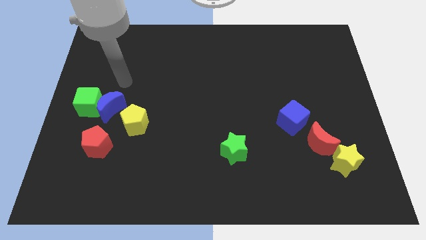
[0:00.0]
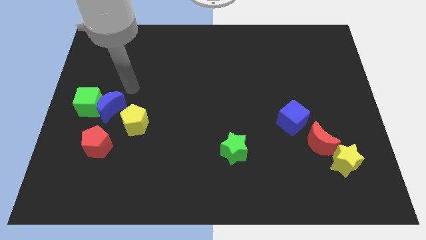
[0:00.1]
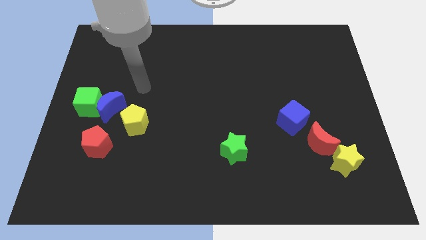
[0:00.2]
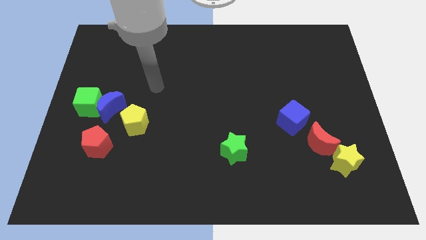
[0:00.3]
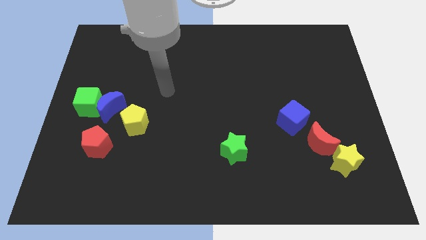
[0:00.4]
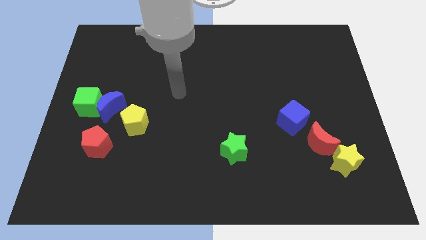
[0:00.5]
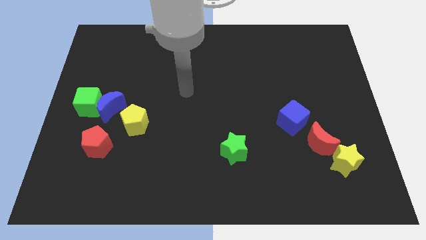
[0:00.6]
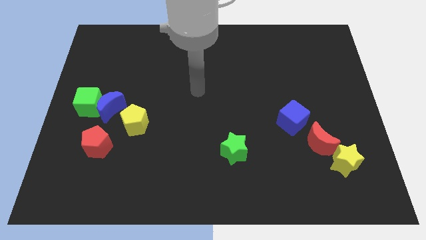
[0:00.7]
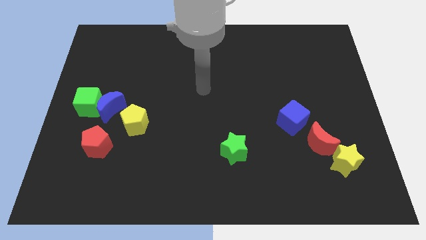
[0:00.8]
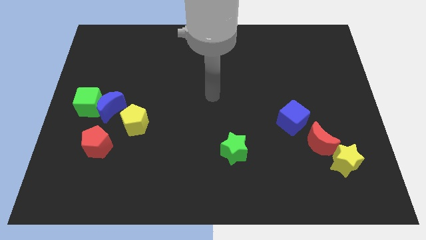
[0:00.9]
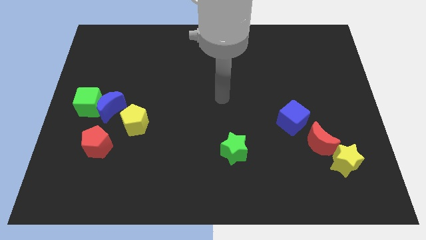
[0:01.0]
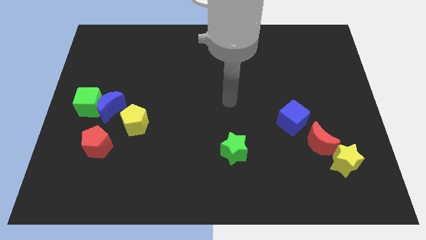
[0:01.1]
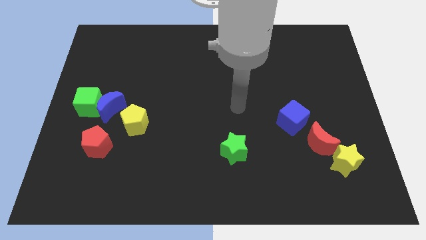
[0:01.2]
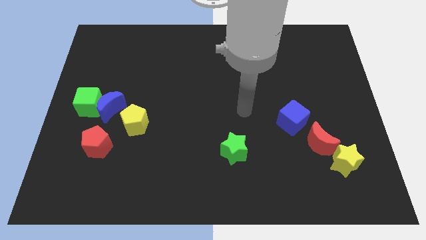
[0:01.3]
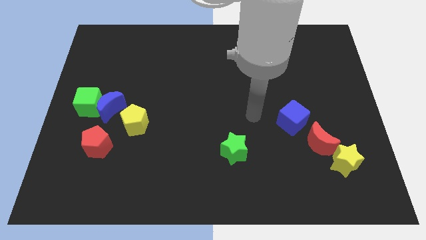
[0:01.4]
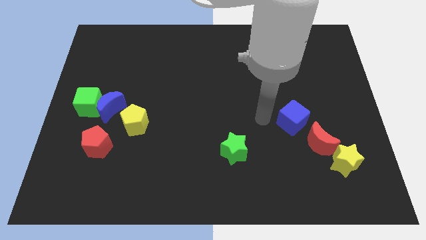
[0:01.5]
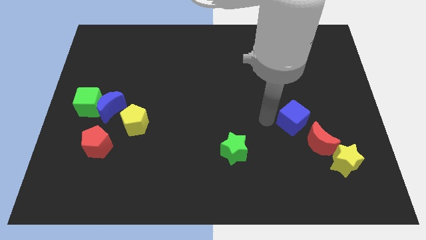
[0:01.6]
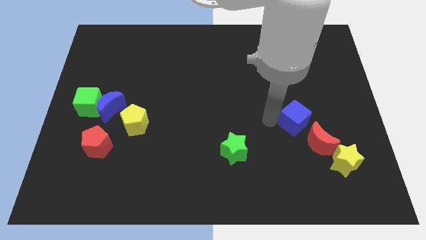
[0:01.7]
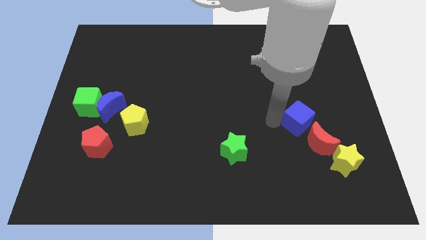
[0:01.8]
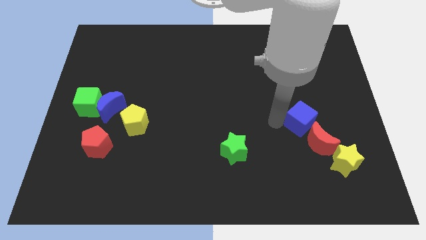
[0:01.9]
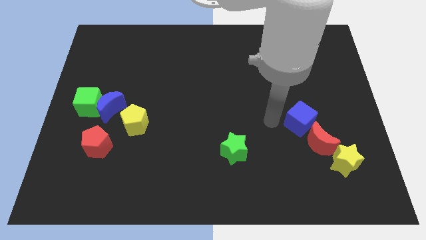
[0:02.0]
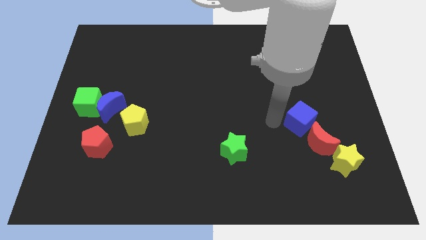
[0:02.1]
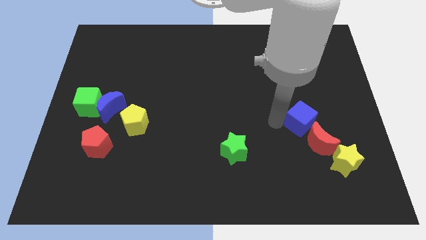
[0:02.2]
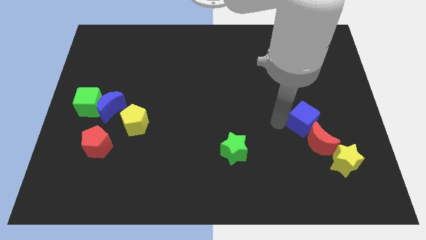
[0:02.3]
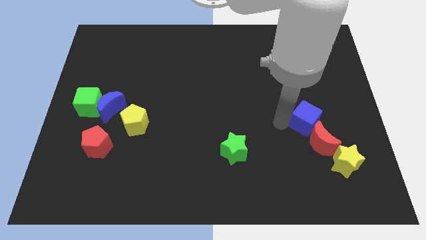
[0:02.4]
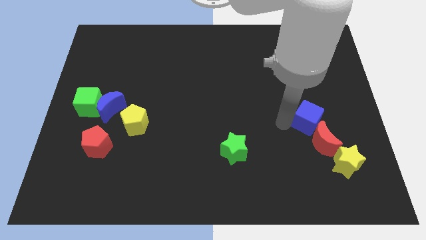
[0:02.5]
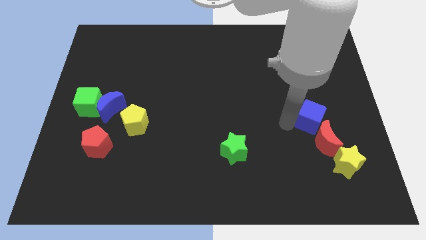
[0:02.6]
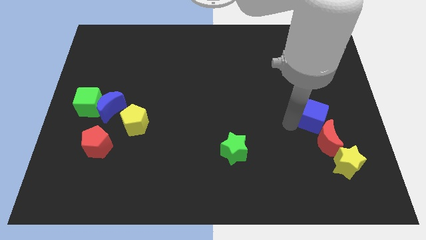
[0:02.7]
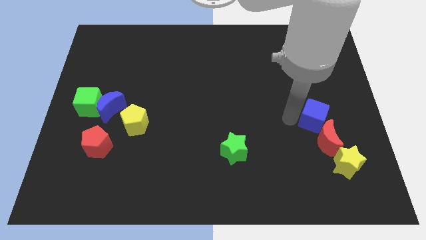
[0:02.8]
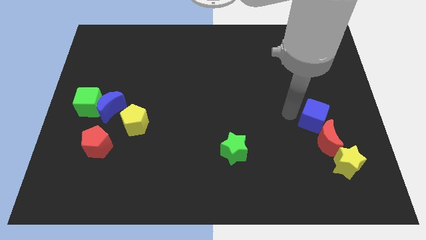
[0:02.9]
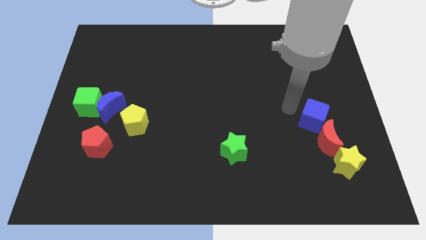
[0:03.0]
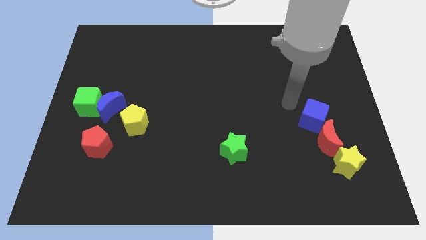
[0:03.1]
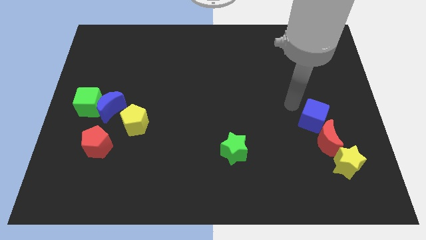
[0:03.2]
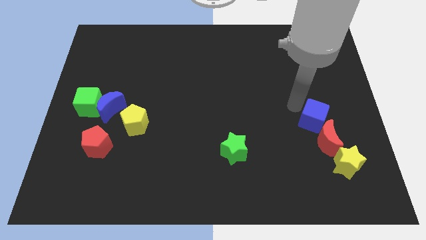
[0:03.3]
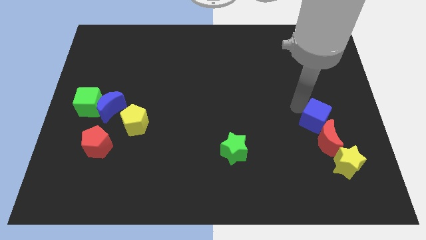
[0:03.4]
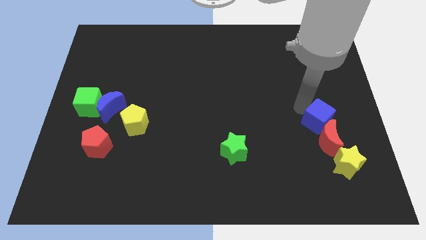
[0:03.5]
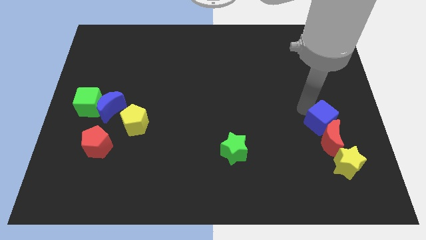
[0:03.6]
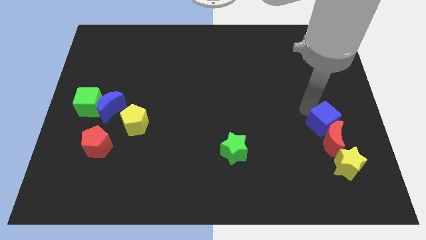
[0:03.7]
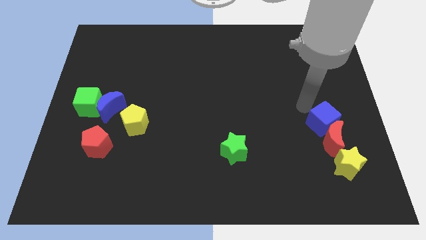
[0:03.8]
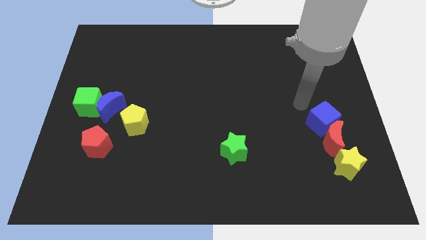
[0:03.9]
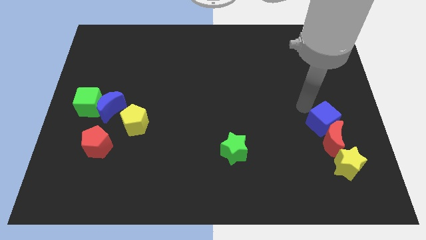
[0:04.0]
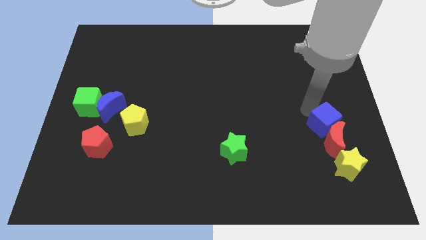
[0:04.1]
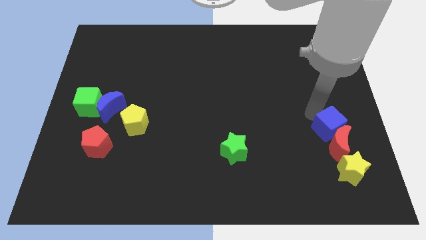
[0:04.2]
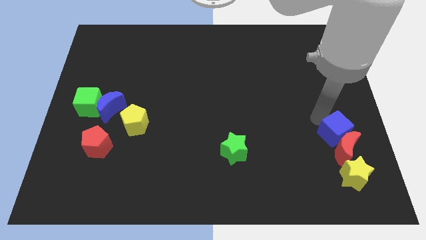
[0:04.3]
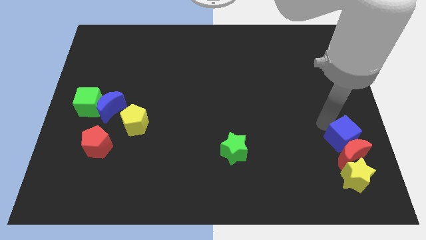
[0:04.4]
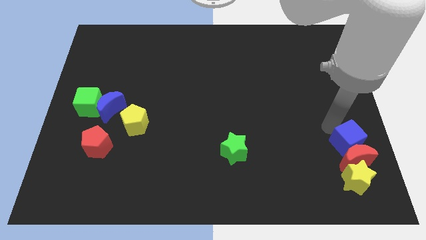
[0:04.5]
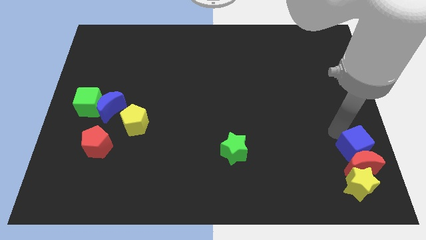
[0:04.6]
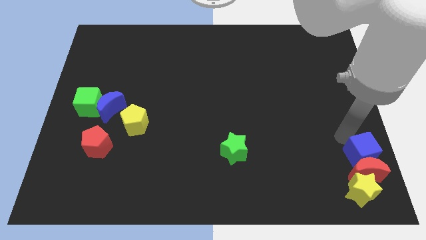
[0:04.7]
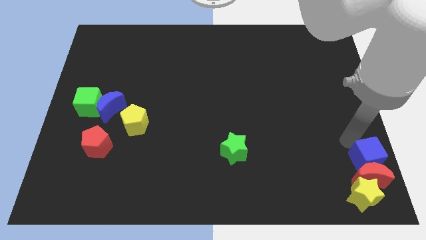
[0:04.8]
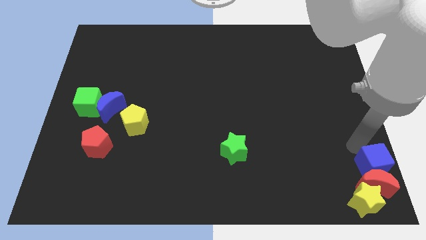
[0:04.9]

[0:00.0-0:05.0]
move the blue cube to the bottom right of the board

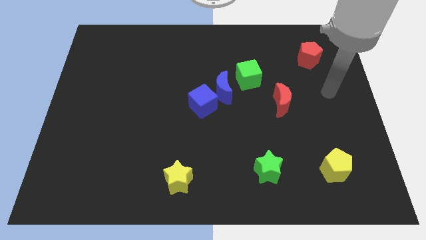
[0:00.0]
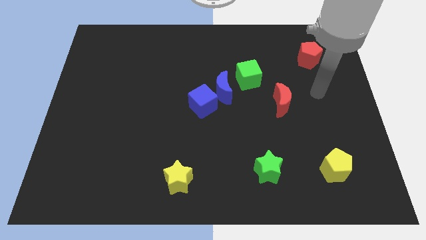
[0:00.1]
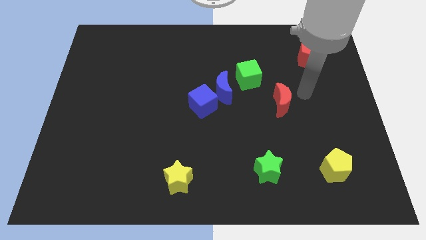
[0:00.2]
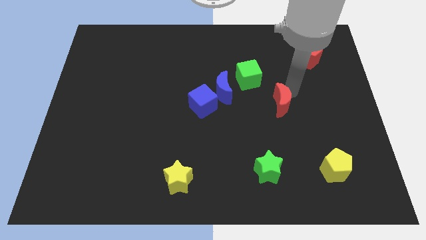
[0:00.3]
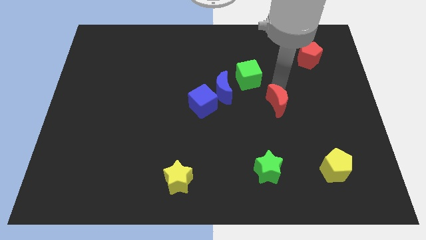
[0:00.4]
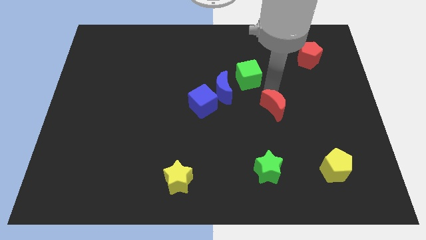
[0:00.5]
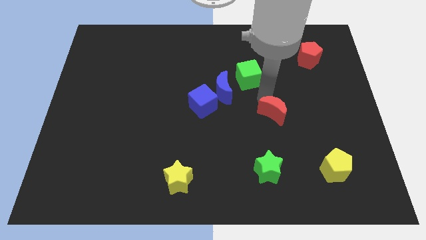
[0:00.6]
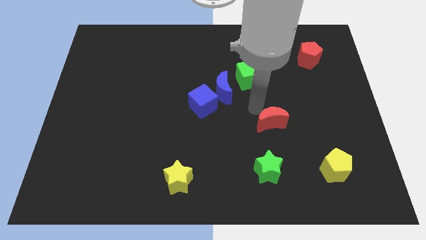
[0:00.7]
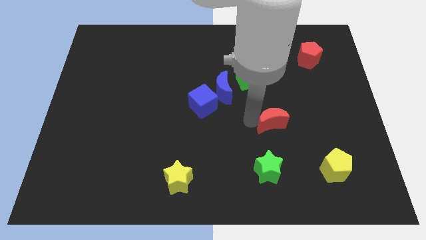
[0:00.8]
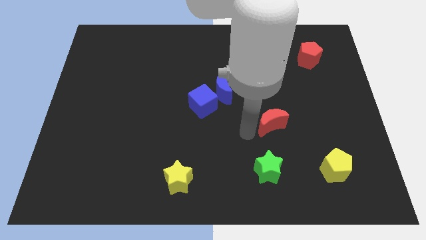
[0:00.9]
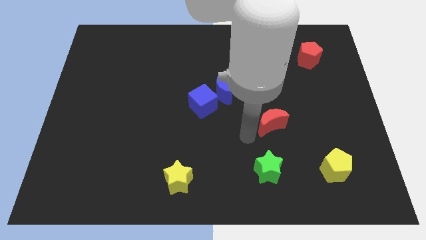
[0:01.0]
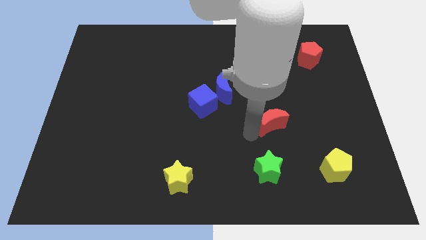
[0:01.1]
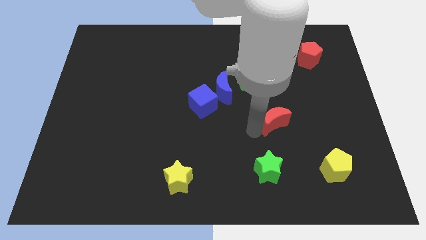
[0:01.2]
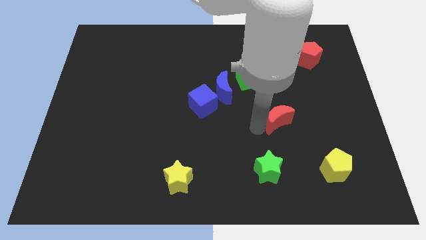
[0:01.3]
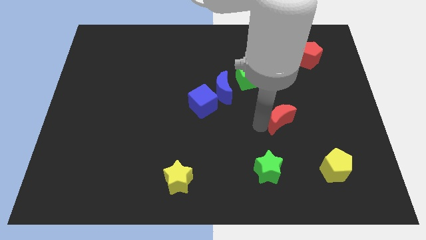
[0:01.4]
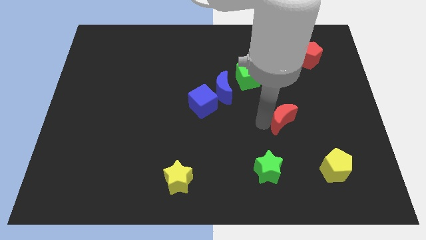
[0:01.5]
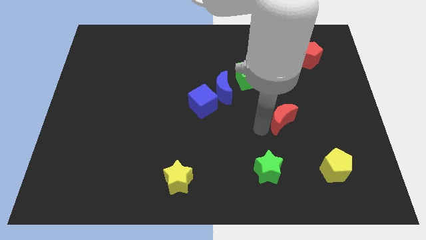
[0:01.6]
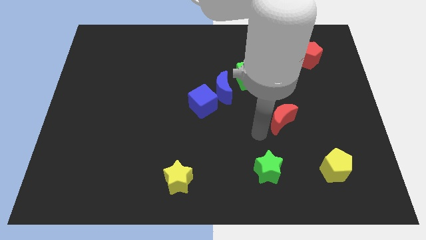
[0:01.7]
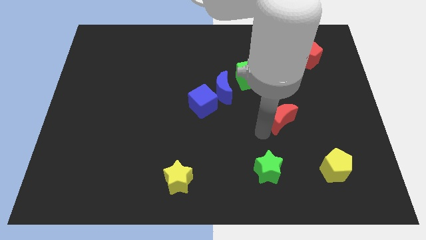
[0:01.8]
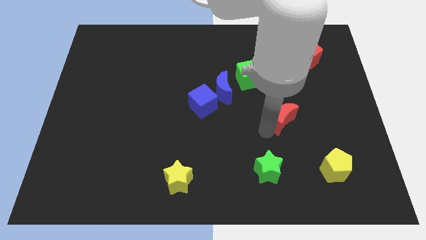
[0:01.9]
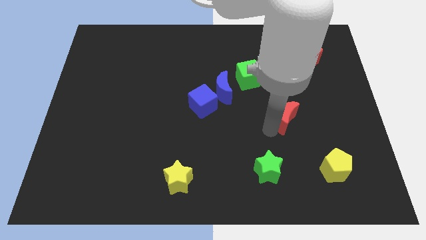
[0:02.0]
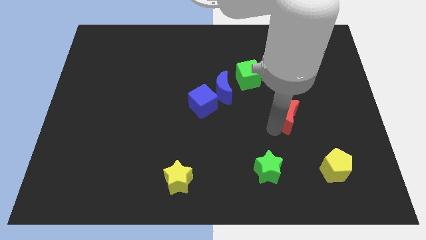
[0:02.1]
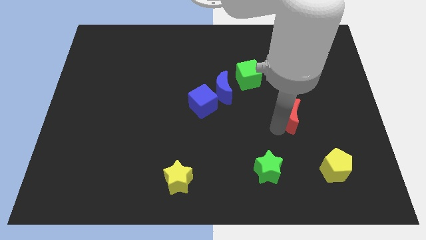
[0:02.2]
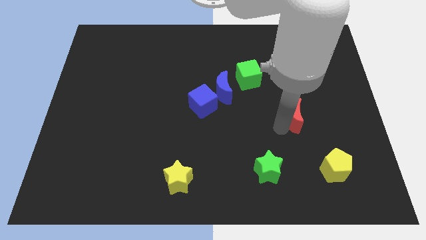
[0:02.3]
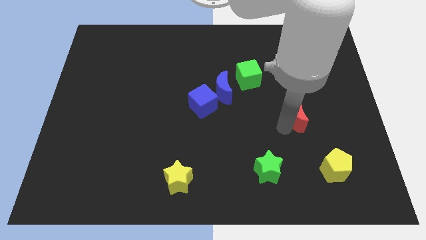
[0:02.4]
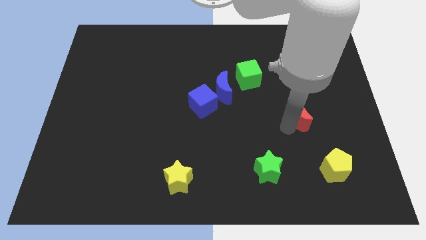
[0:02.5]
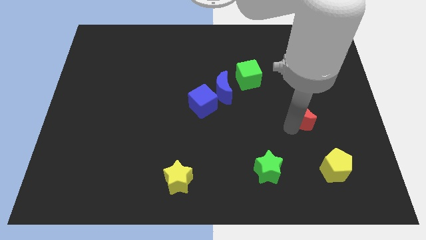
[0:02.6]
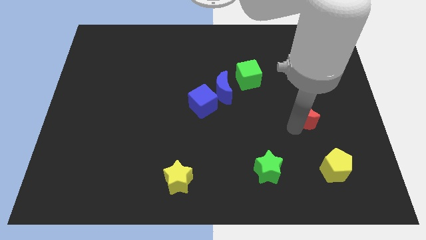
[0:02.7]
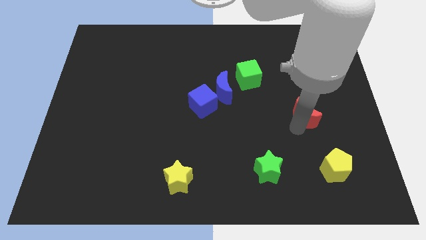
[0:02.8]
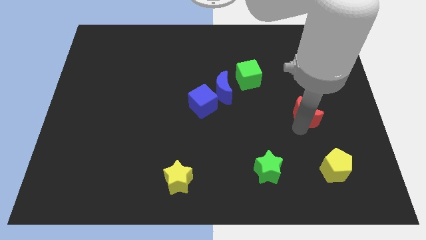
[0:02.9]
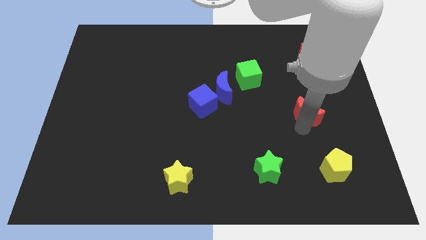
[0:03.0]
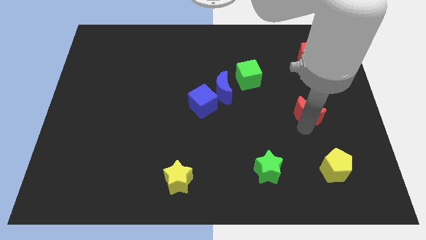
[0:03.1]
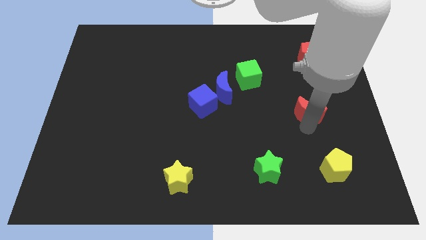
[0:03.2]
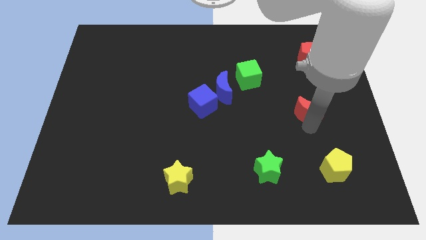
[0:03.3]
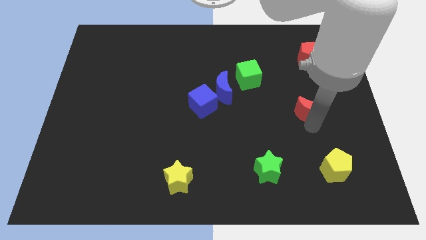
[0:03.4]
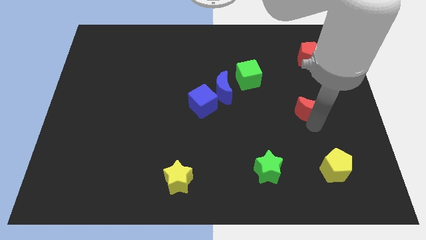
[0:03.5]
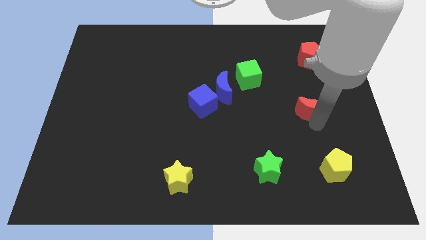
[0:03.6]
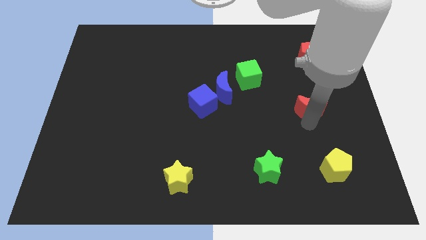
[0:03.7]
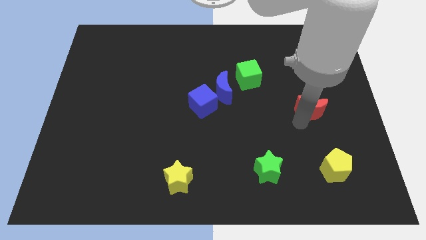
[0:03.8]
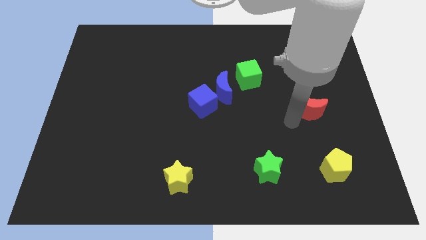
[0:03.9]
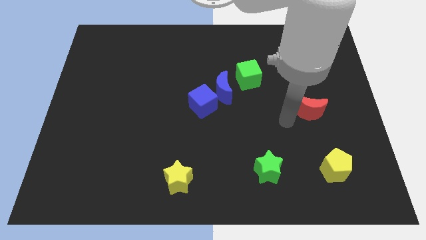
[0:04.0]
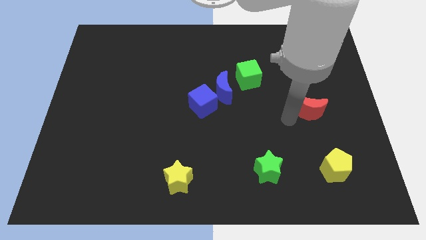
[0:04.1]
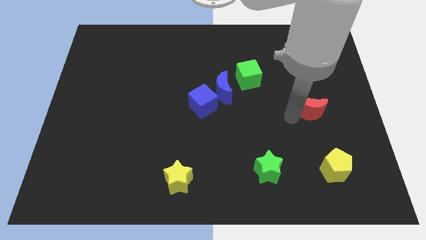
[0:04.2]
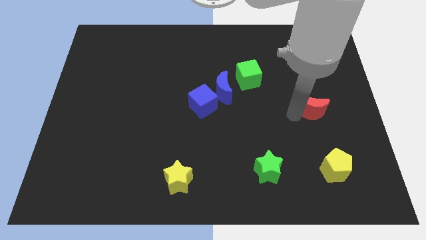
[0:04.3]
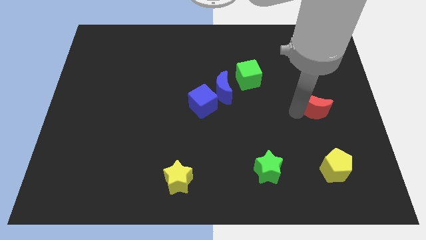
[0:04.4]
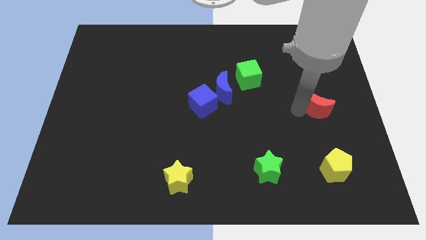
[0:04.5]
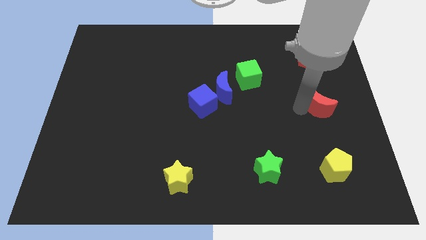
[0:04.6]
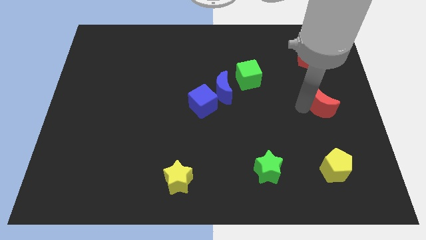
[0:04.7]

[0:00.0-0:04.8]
put the red moon to the right side
